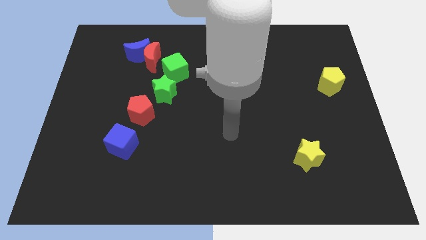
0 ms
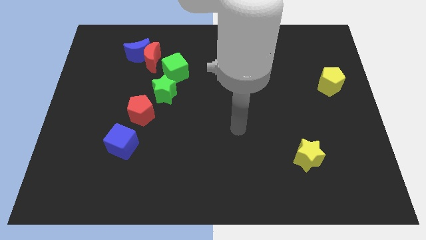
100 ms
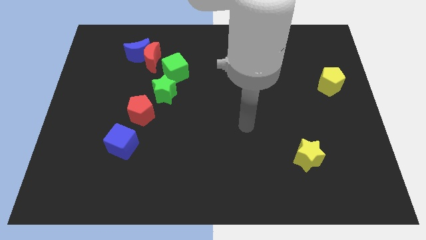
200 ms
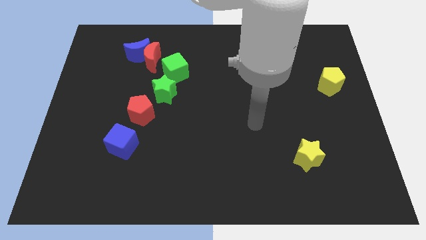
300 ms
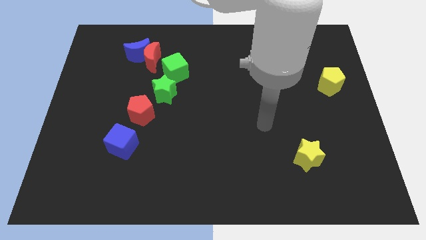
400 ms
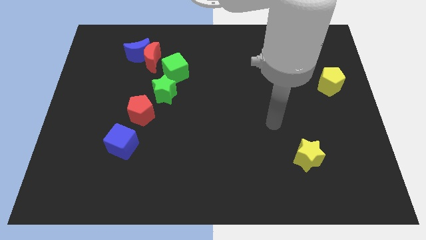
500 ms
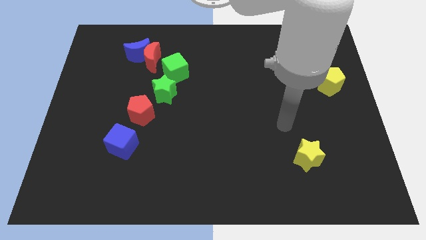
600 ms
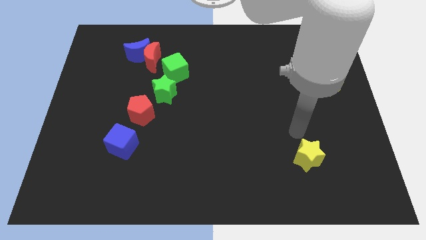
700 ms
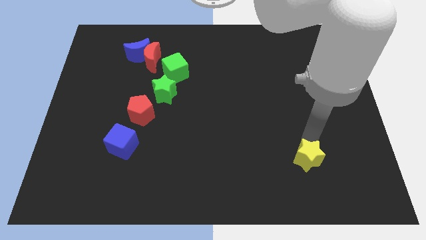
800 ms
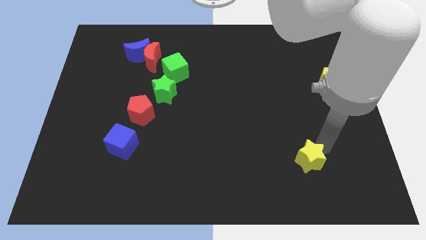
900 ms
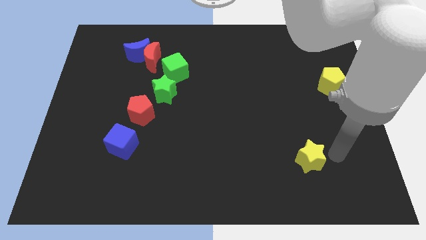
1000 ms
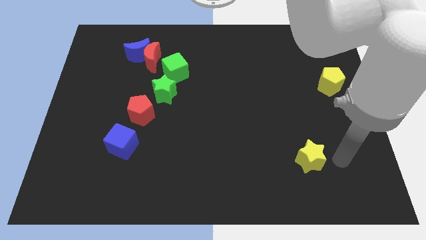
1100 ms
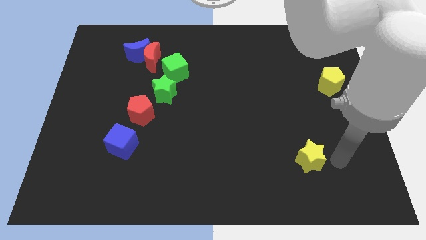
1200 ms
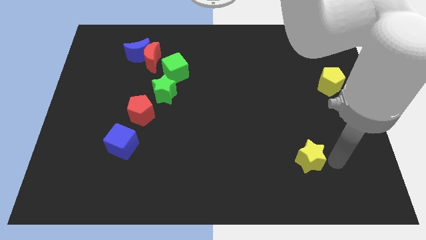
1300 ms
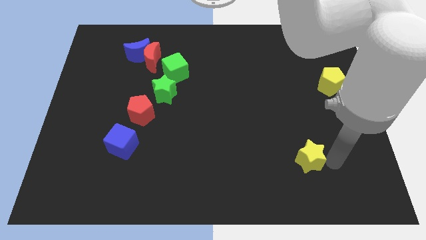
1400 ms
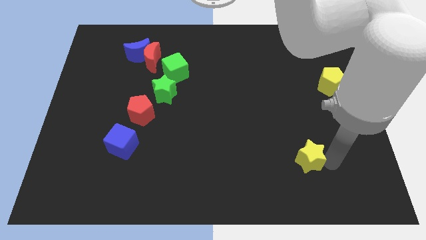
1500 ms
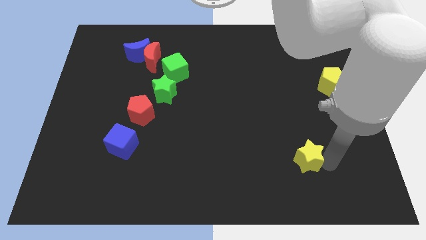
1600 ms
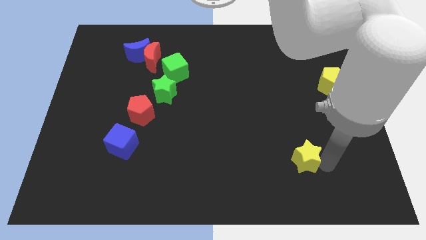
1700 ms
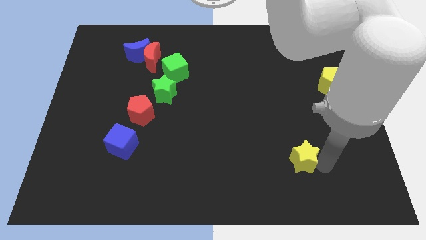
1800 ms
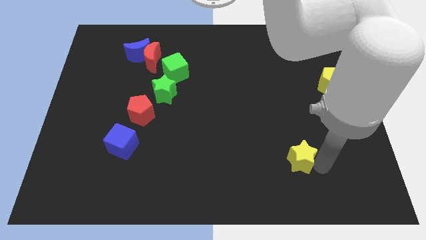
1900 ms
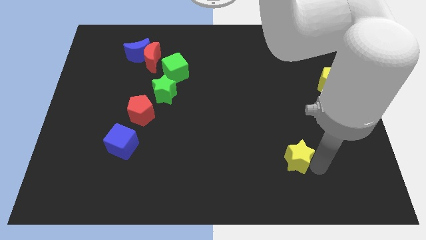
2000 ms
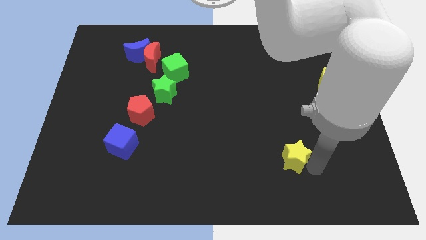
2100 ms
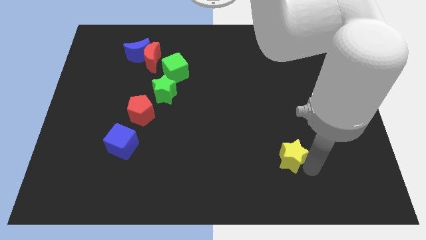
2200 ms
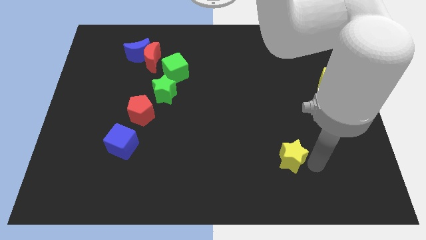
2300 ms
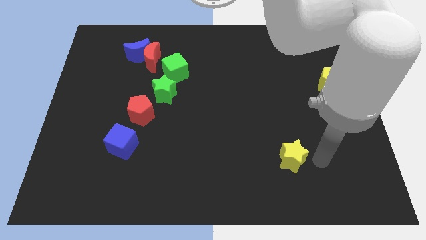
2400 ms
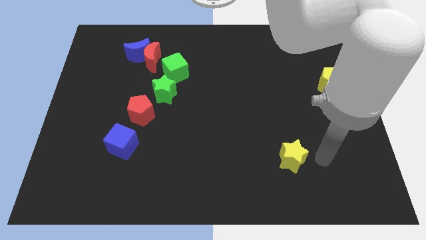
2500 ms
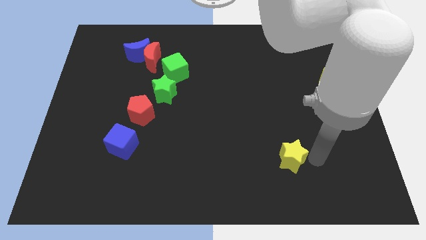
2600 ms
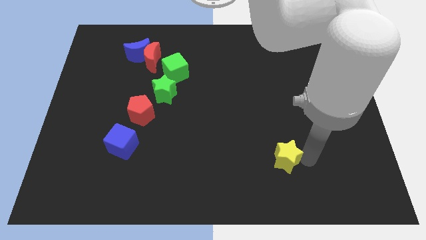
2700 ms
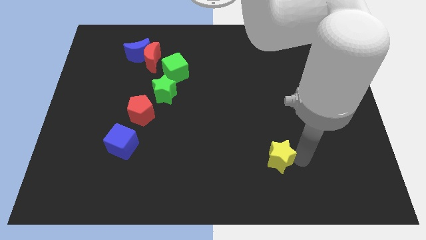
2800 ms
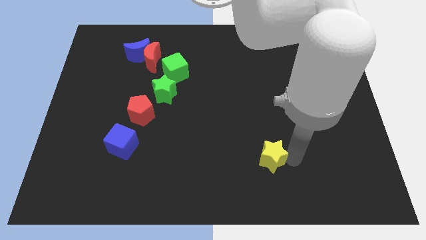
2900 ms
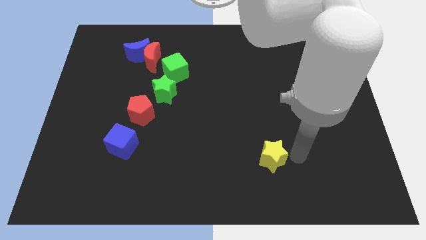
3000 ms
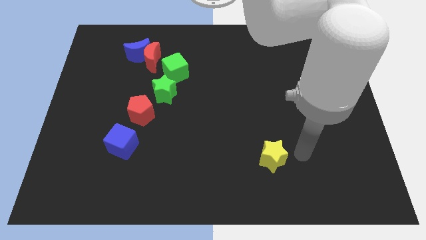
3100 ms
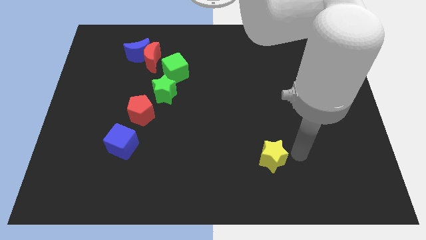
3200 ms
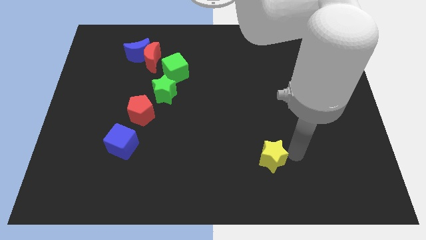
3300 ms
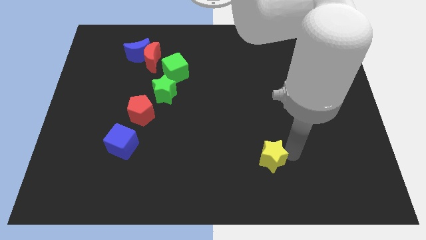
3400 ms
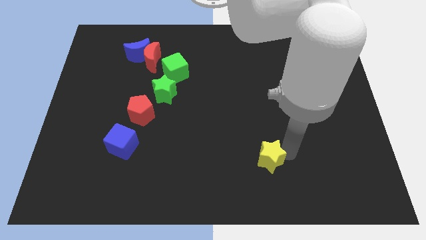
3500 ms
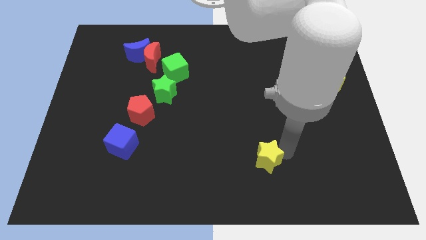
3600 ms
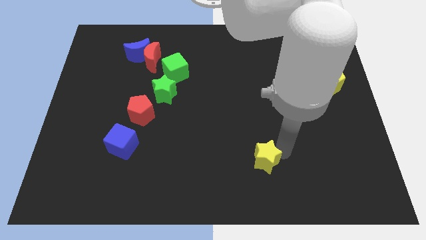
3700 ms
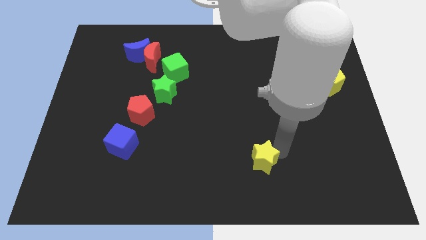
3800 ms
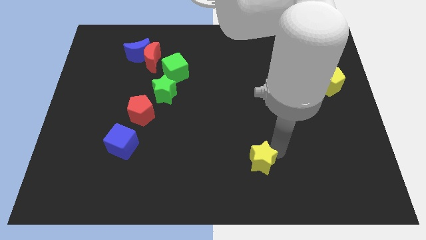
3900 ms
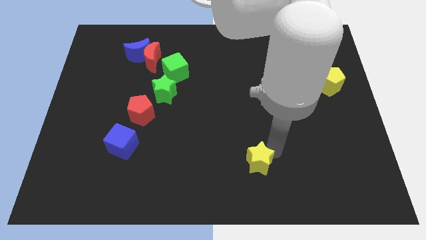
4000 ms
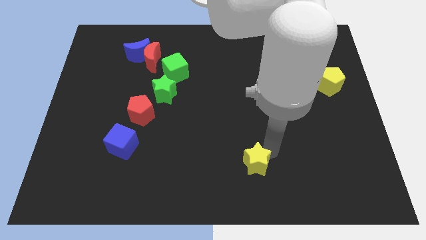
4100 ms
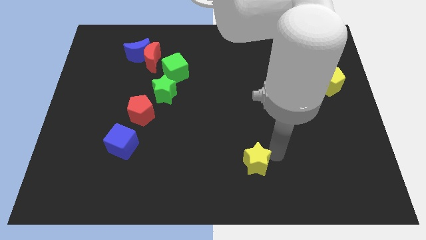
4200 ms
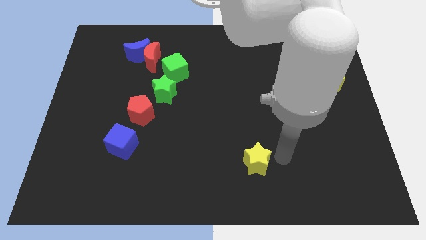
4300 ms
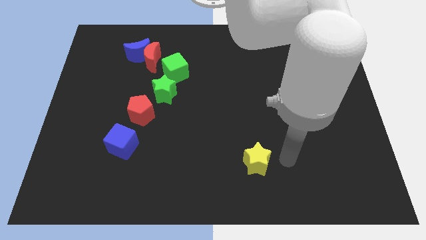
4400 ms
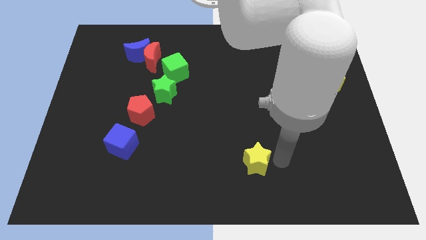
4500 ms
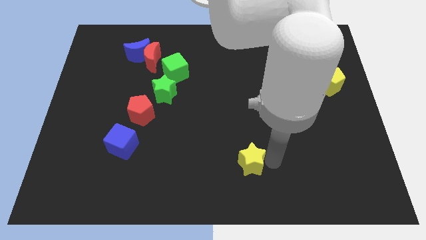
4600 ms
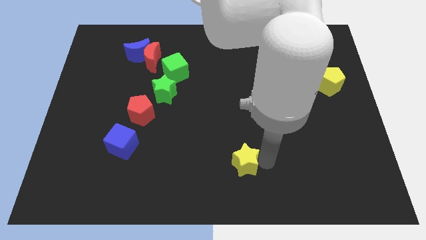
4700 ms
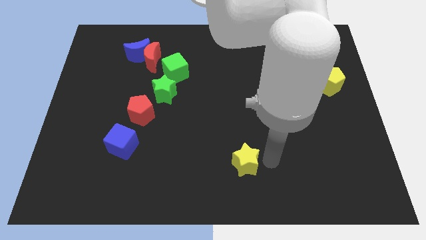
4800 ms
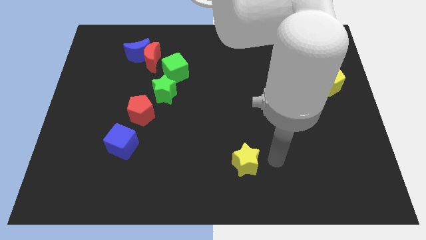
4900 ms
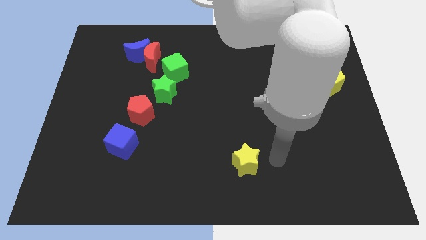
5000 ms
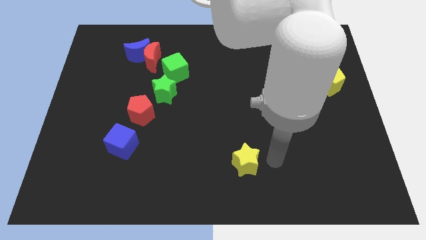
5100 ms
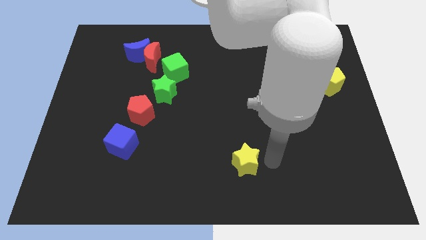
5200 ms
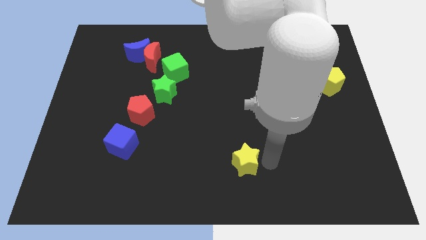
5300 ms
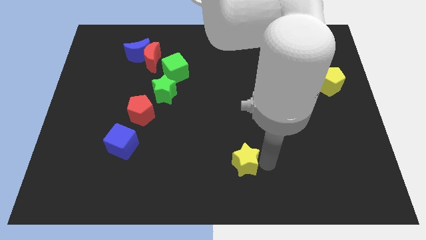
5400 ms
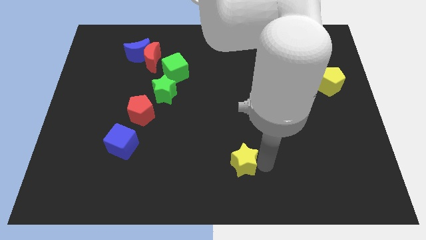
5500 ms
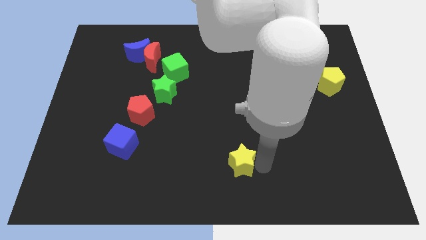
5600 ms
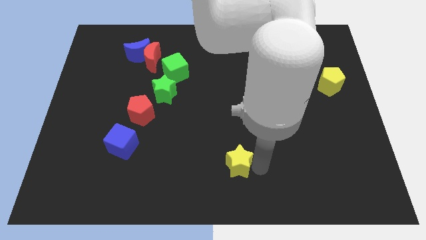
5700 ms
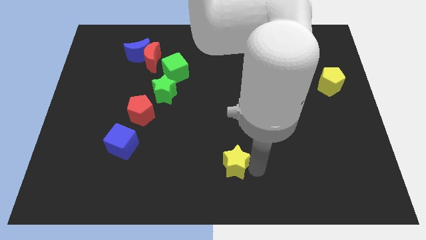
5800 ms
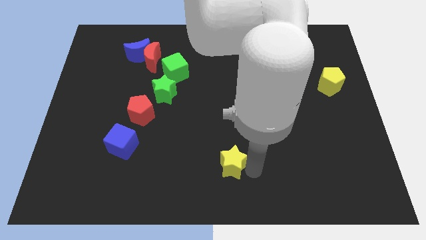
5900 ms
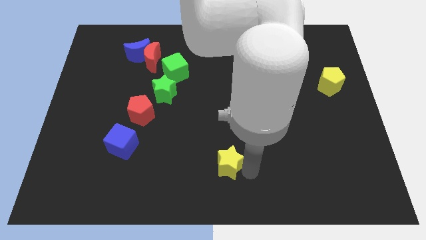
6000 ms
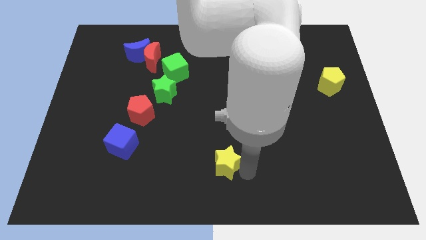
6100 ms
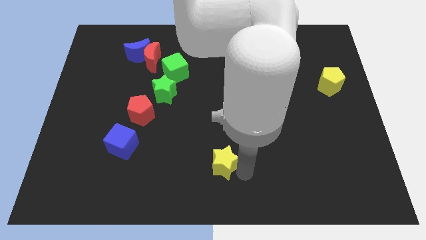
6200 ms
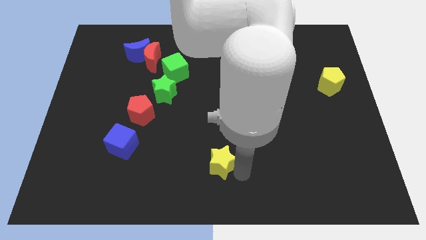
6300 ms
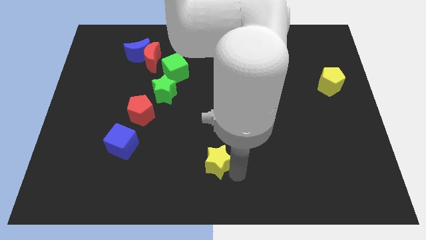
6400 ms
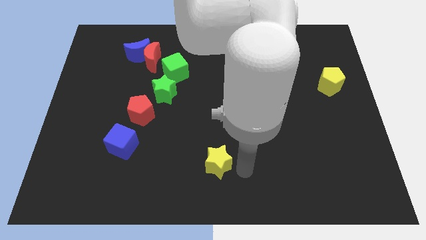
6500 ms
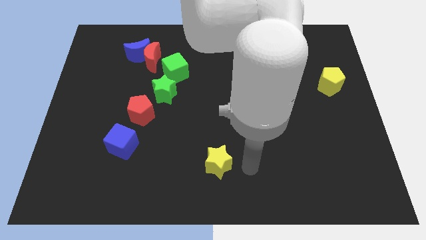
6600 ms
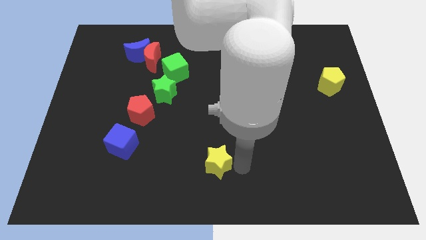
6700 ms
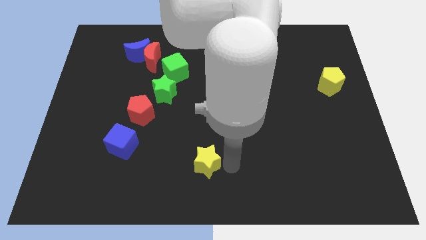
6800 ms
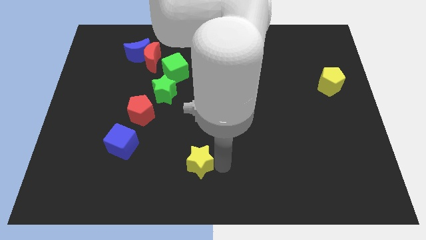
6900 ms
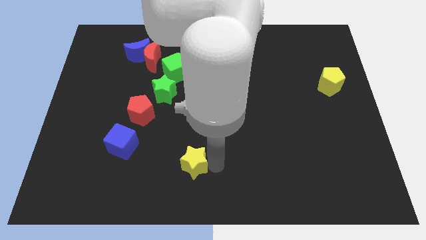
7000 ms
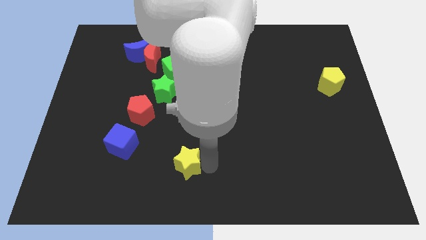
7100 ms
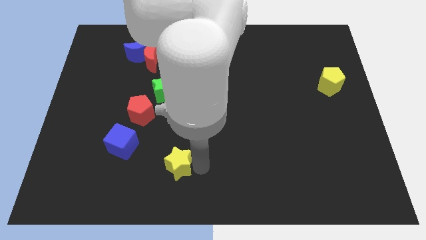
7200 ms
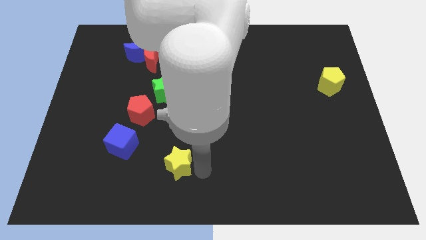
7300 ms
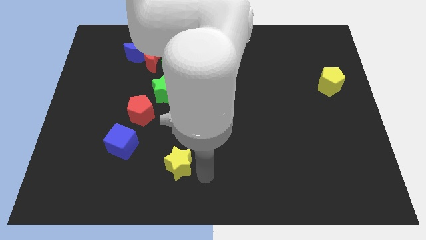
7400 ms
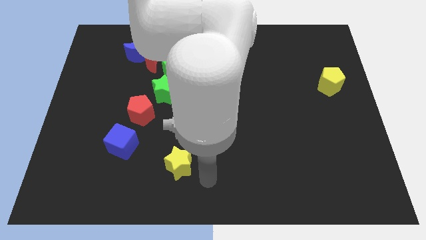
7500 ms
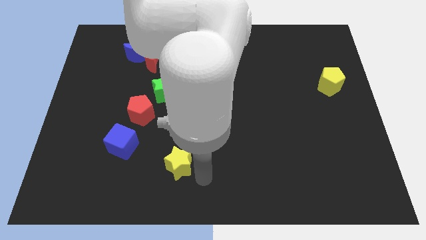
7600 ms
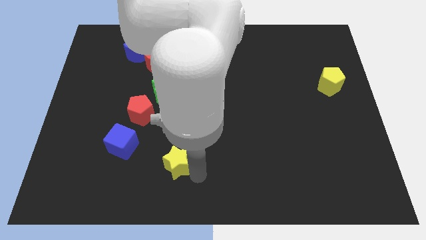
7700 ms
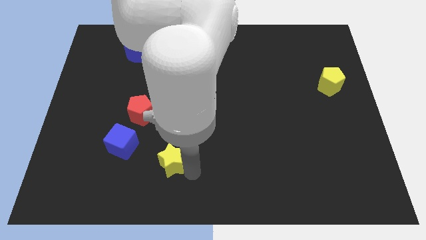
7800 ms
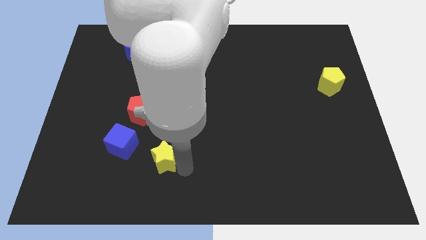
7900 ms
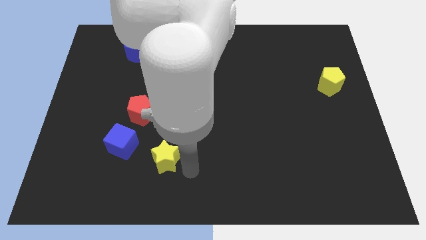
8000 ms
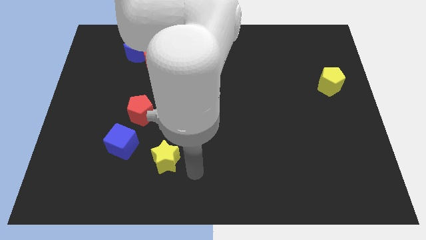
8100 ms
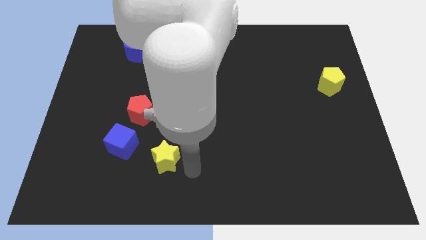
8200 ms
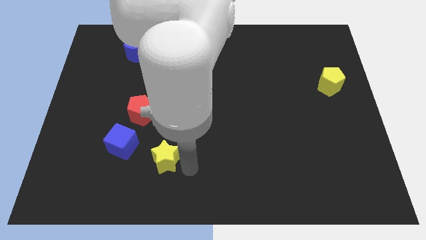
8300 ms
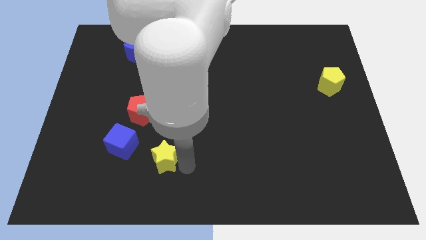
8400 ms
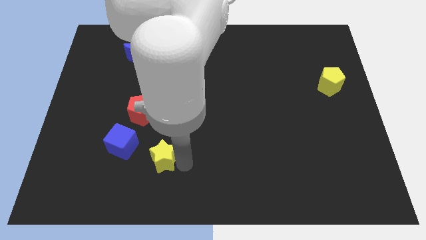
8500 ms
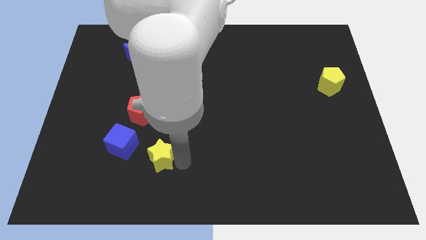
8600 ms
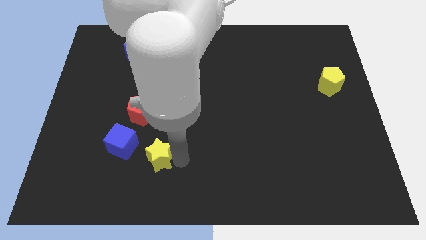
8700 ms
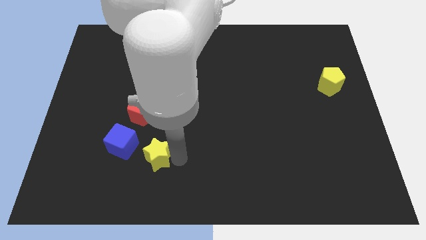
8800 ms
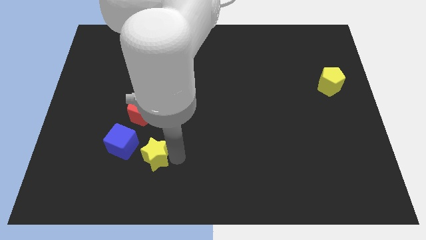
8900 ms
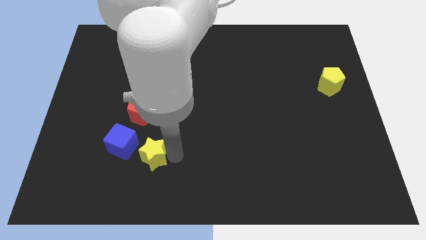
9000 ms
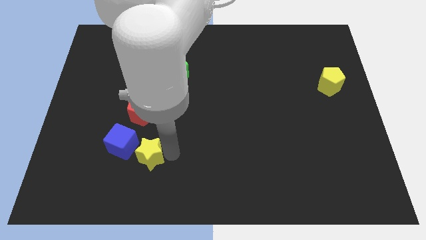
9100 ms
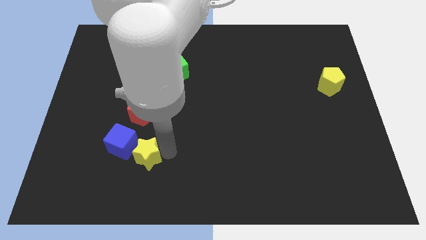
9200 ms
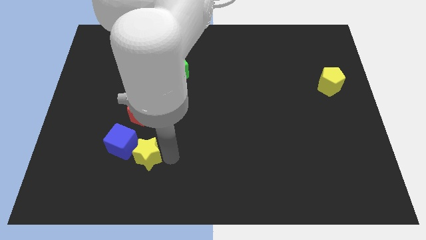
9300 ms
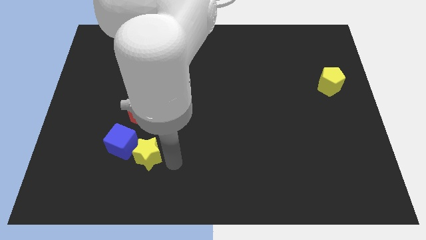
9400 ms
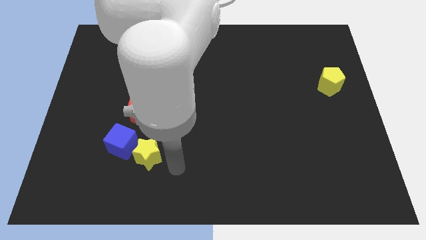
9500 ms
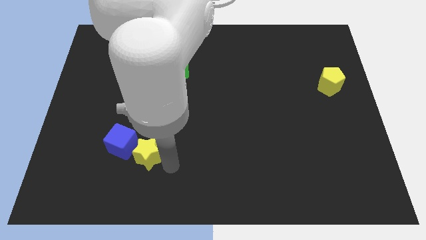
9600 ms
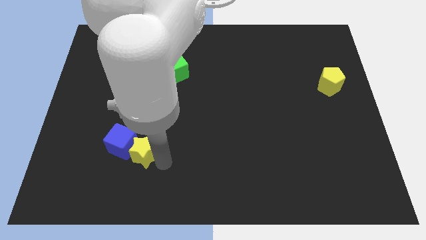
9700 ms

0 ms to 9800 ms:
put the yellow star close to the blue cube
